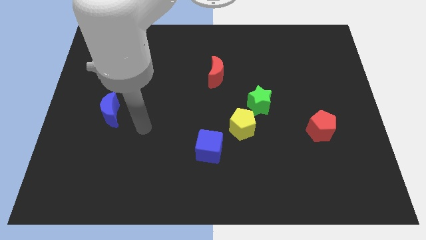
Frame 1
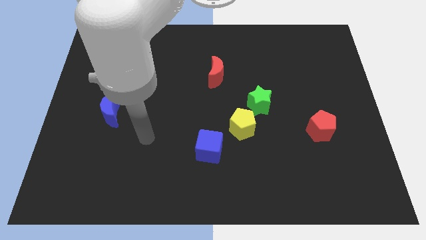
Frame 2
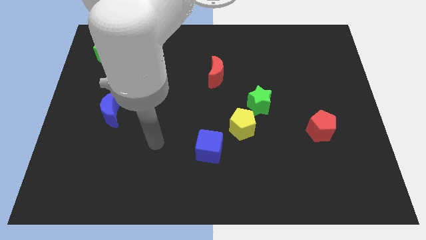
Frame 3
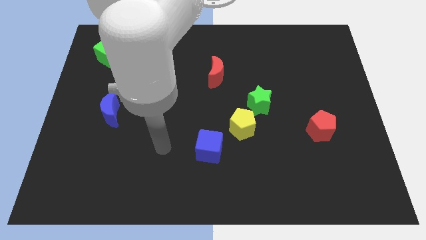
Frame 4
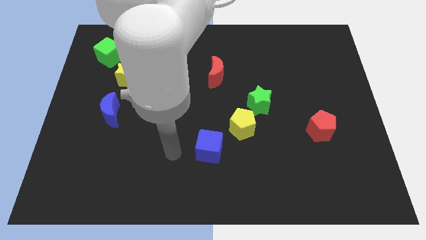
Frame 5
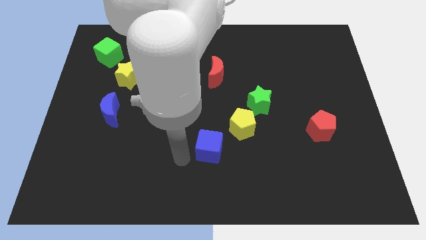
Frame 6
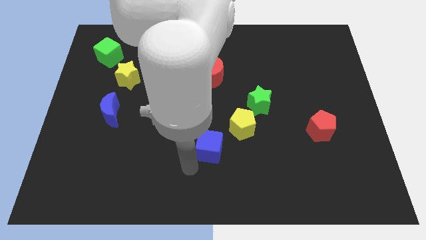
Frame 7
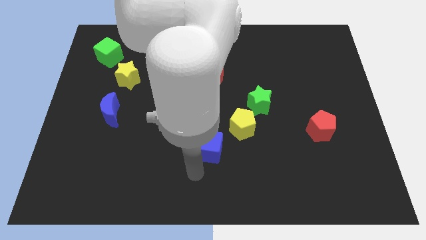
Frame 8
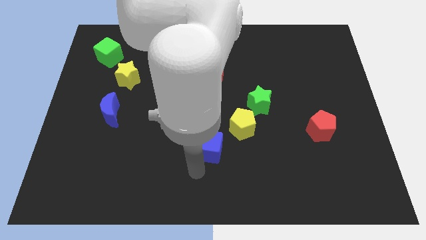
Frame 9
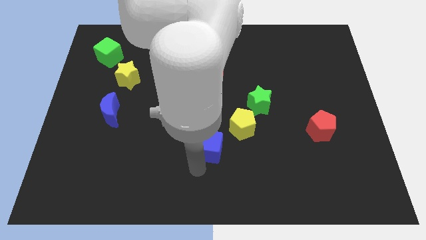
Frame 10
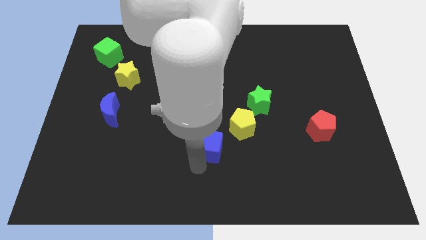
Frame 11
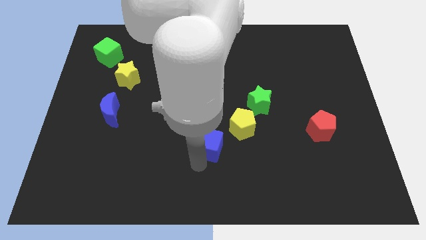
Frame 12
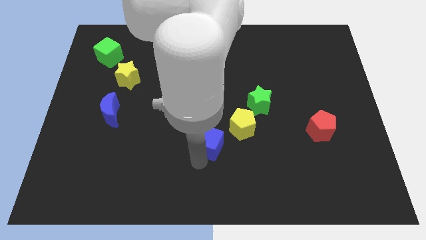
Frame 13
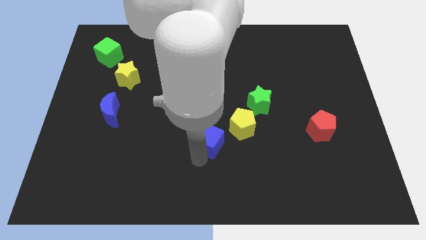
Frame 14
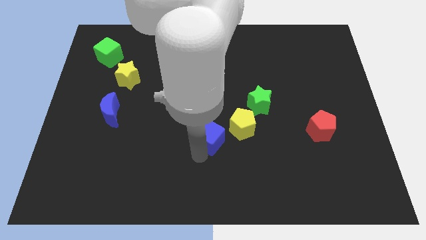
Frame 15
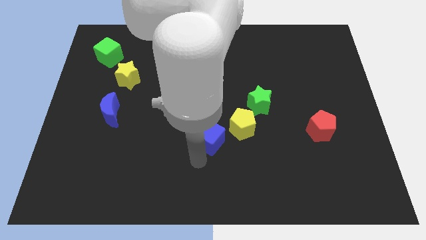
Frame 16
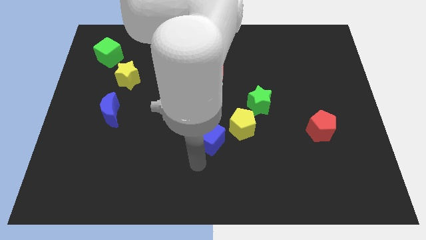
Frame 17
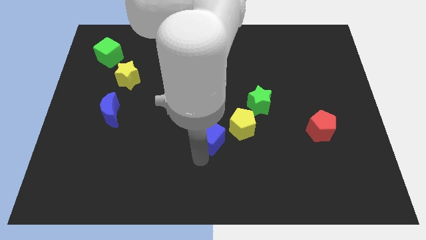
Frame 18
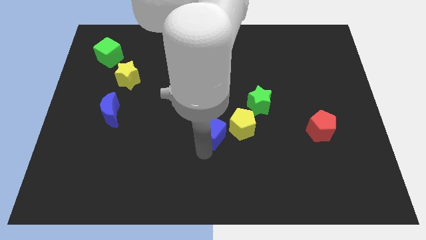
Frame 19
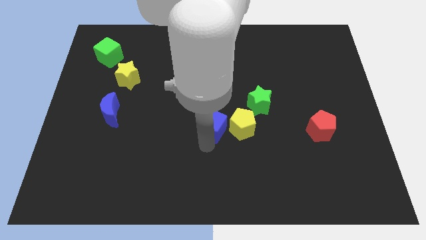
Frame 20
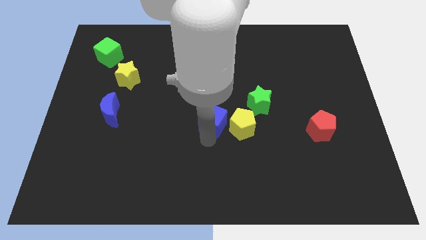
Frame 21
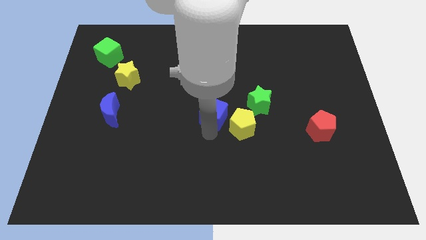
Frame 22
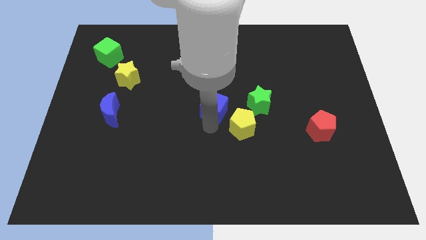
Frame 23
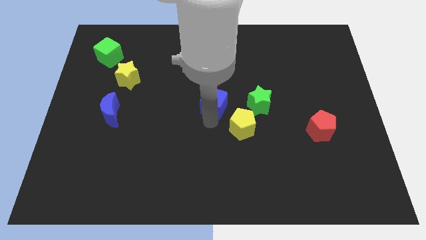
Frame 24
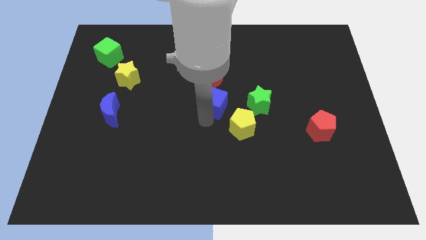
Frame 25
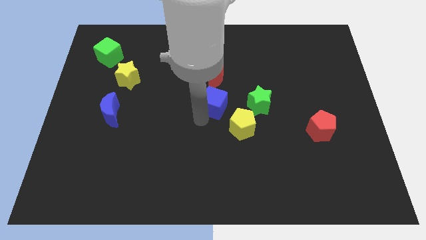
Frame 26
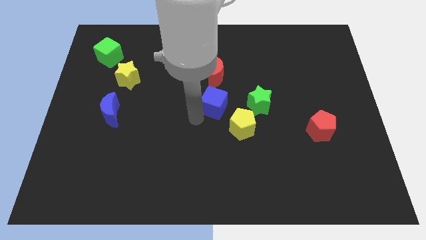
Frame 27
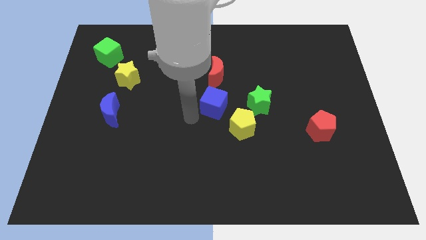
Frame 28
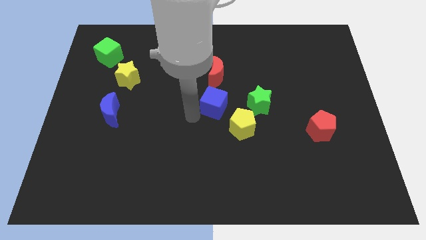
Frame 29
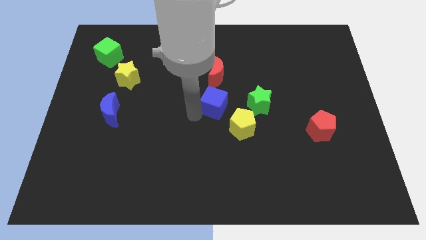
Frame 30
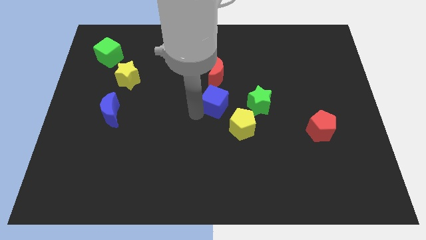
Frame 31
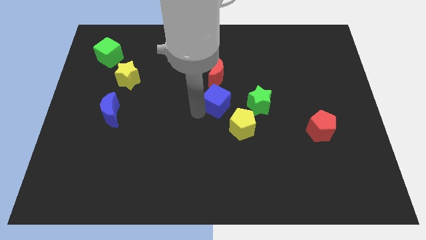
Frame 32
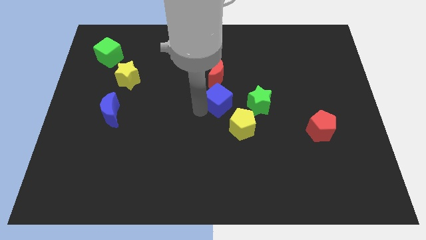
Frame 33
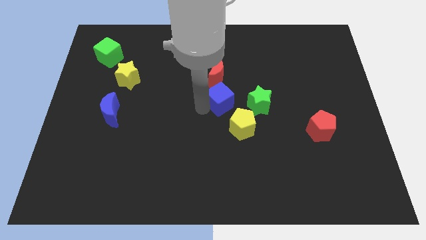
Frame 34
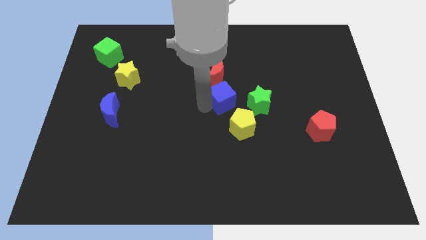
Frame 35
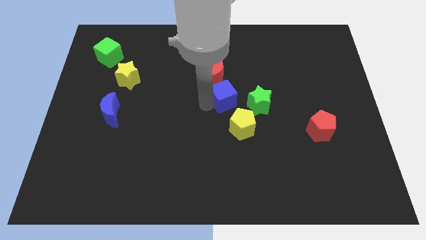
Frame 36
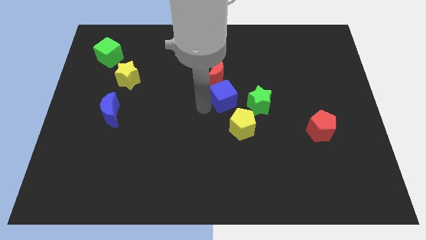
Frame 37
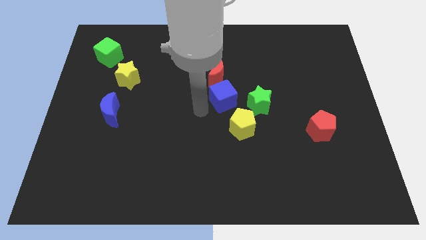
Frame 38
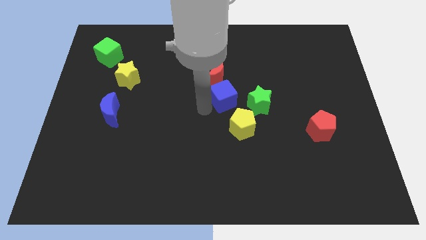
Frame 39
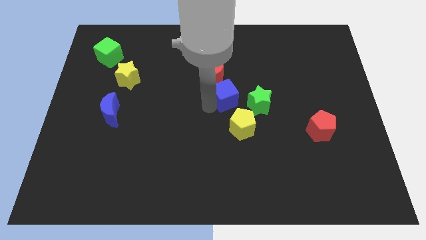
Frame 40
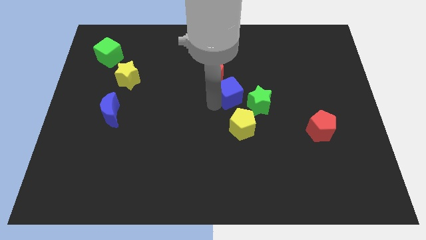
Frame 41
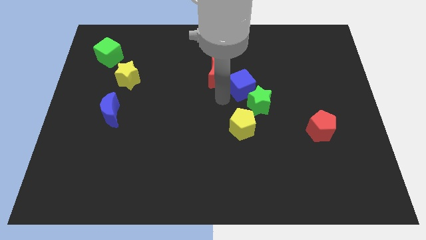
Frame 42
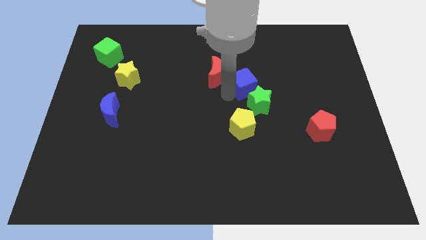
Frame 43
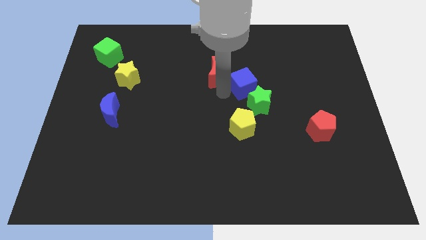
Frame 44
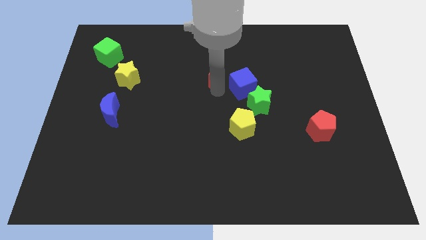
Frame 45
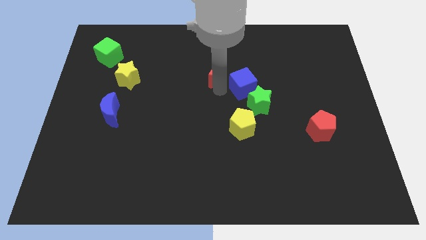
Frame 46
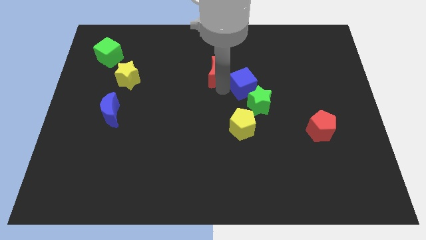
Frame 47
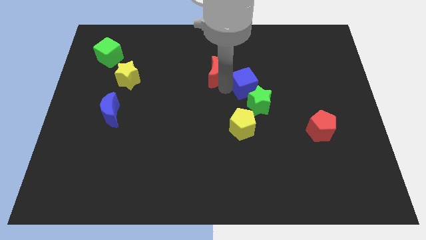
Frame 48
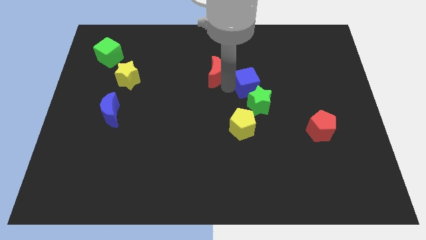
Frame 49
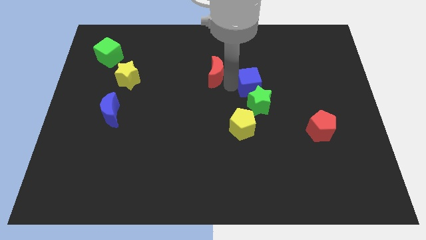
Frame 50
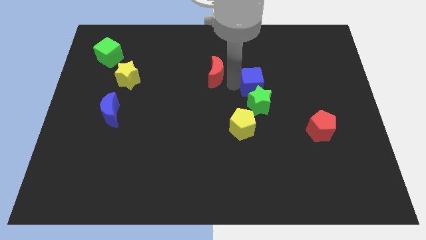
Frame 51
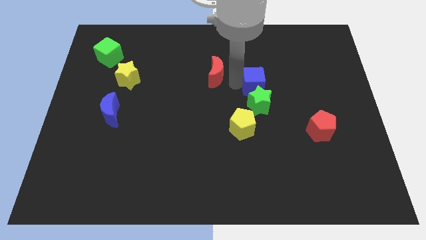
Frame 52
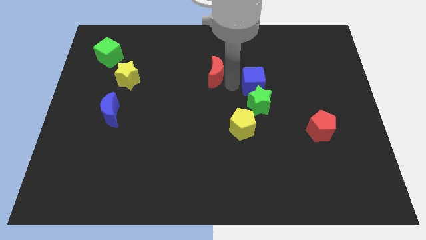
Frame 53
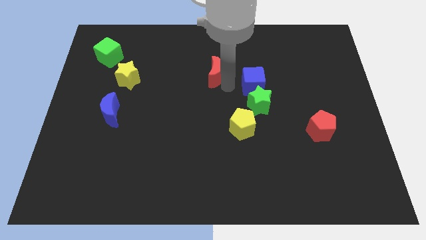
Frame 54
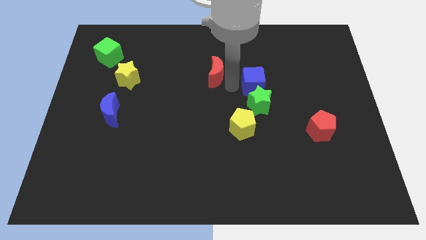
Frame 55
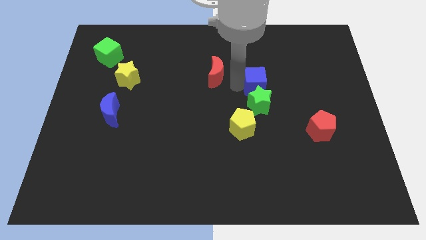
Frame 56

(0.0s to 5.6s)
move the blue cube upwards and right diagonally

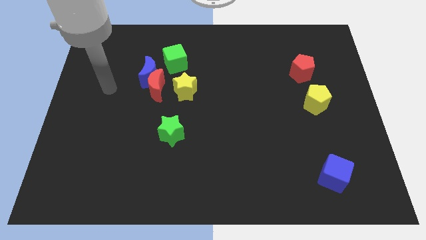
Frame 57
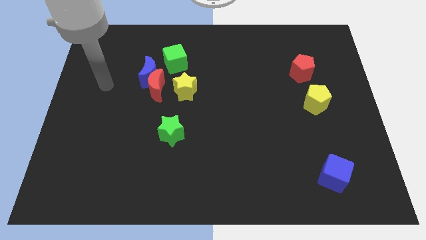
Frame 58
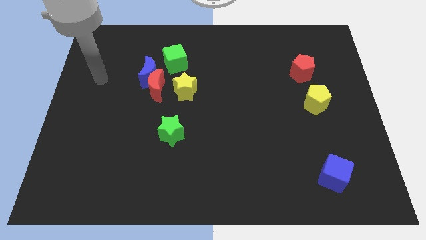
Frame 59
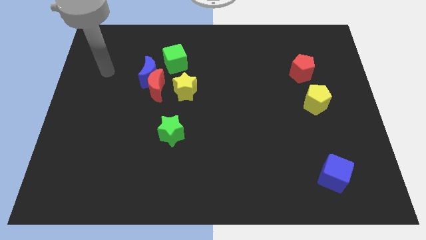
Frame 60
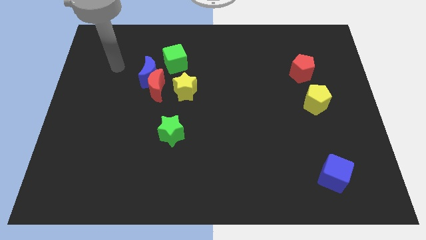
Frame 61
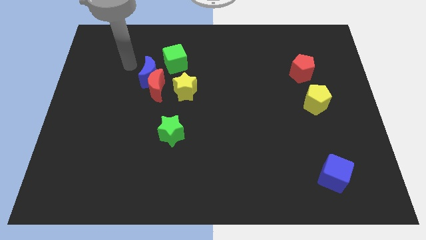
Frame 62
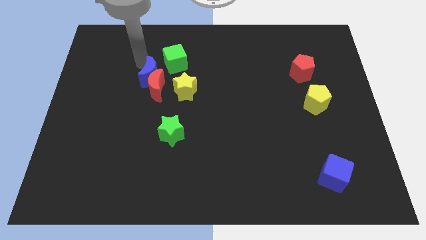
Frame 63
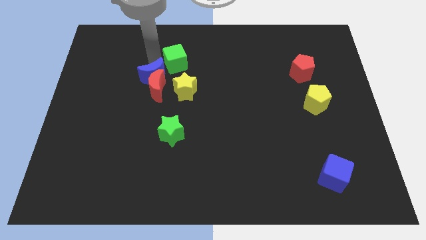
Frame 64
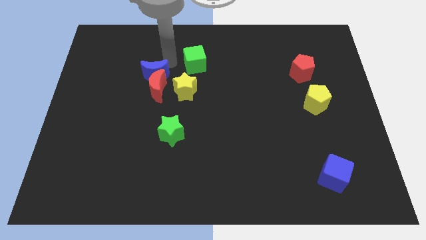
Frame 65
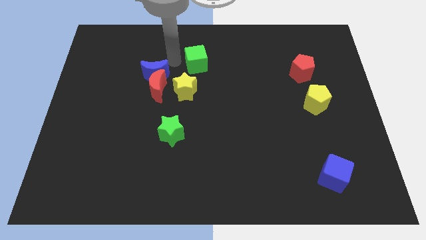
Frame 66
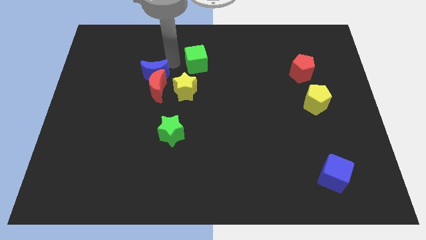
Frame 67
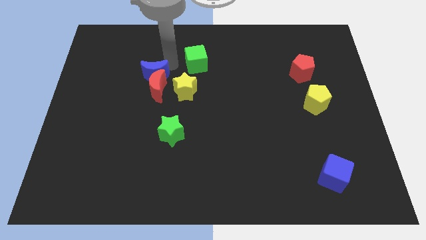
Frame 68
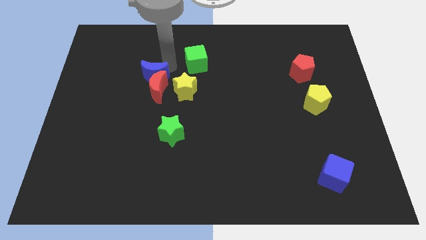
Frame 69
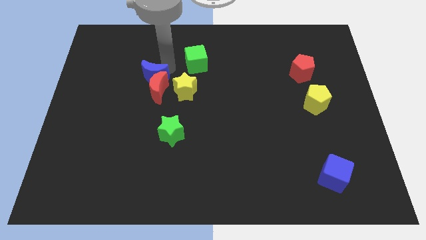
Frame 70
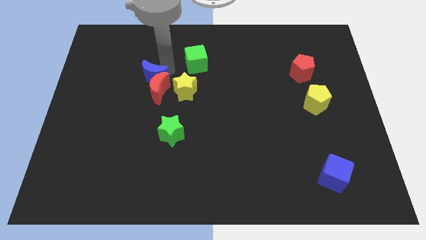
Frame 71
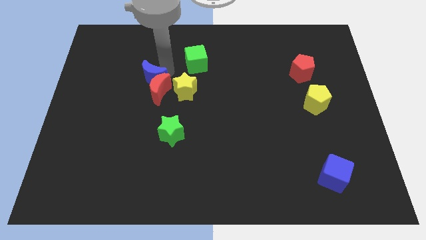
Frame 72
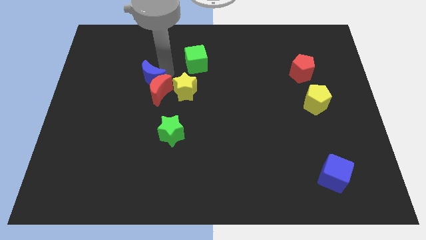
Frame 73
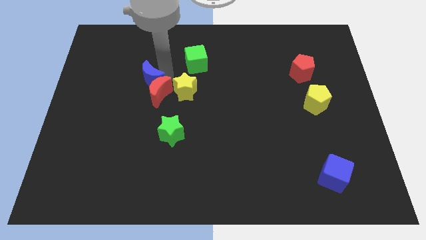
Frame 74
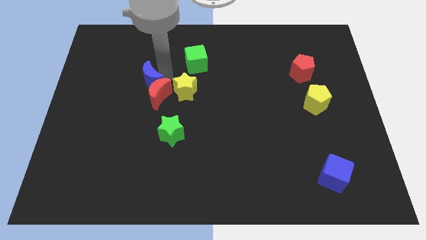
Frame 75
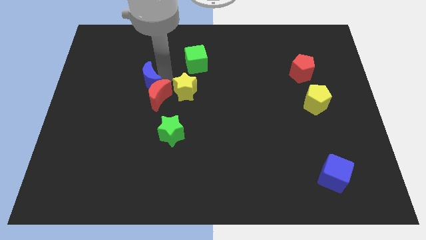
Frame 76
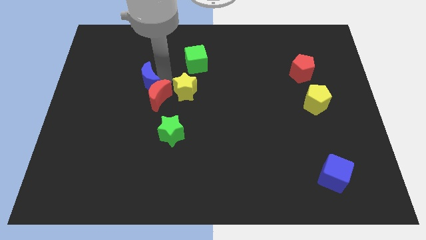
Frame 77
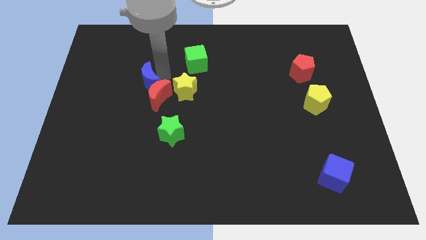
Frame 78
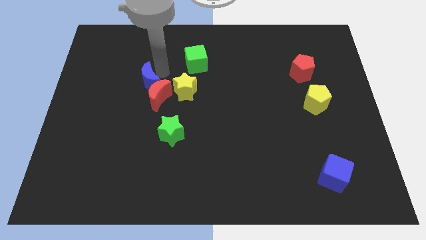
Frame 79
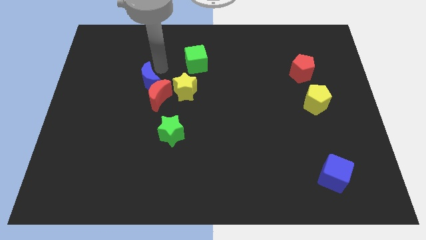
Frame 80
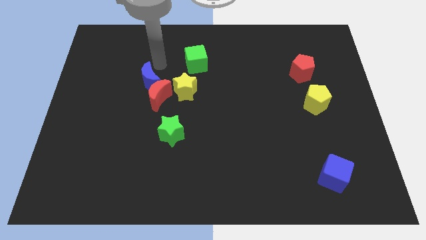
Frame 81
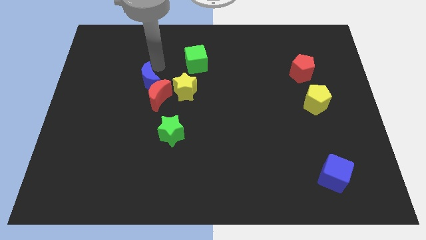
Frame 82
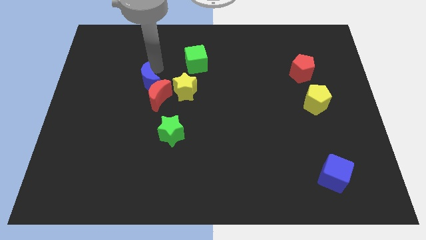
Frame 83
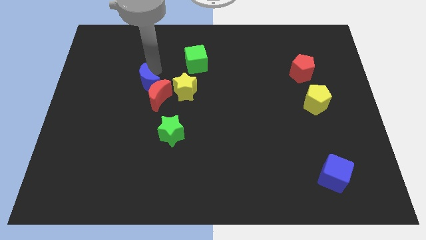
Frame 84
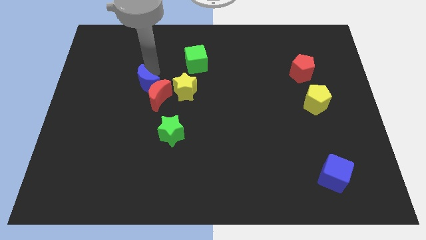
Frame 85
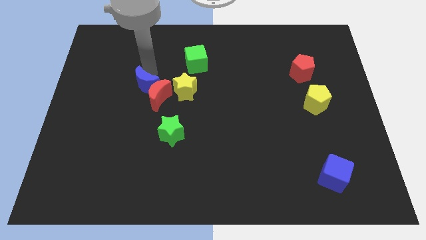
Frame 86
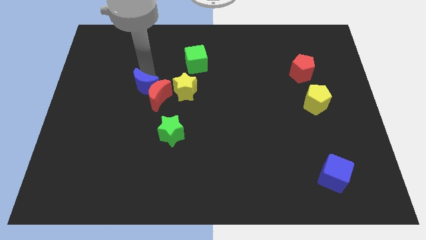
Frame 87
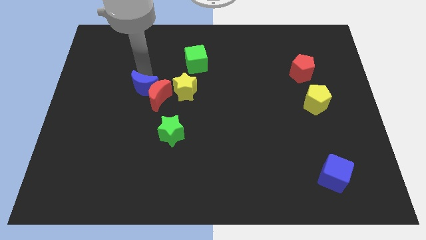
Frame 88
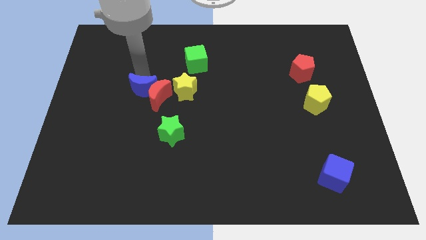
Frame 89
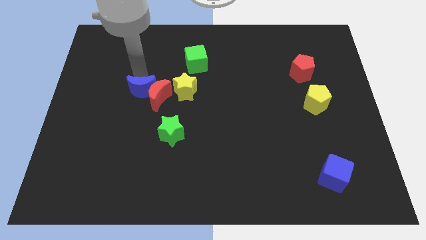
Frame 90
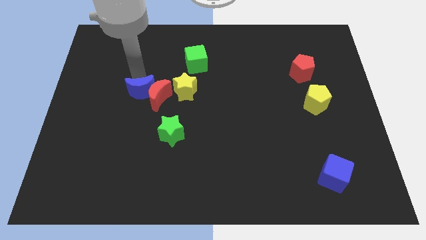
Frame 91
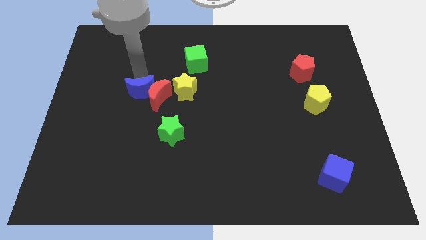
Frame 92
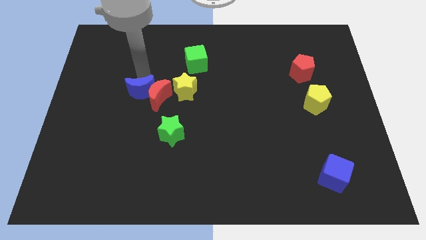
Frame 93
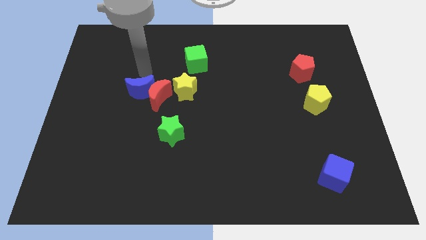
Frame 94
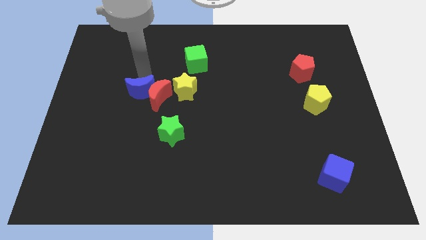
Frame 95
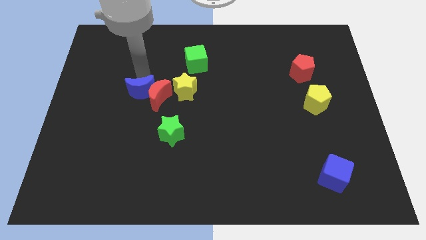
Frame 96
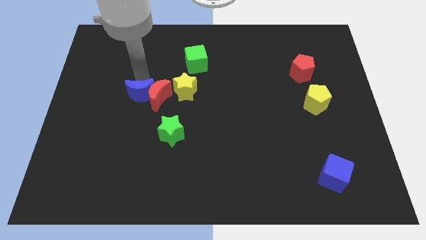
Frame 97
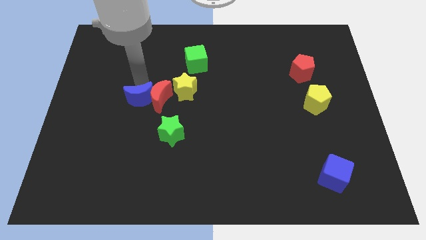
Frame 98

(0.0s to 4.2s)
slightly move the blue moon down
